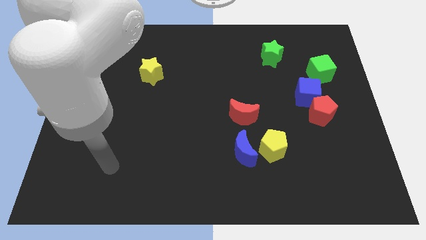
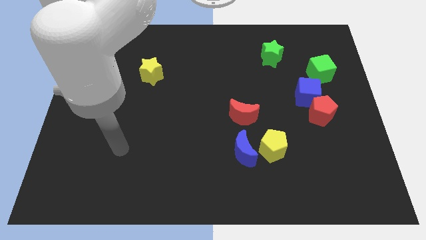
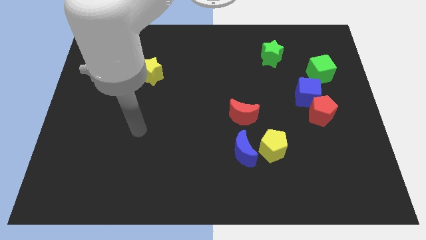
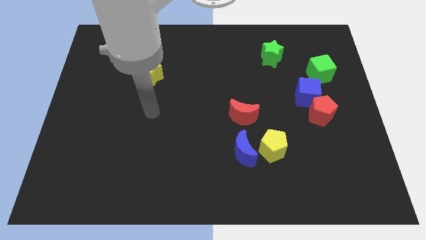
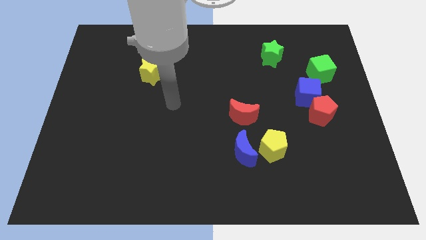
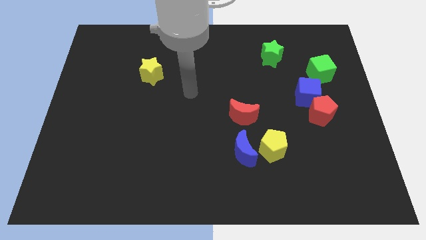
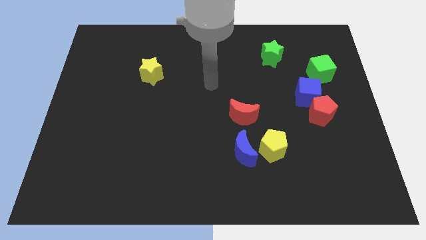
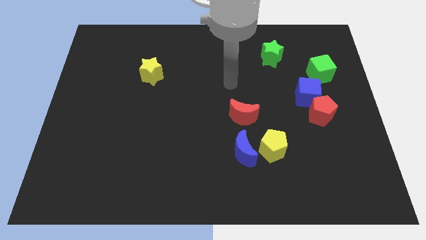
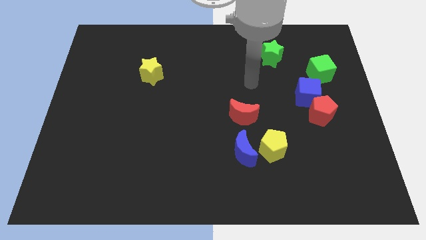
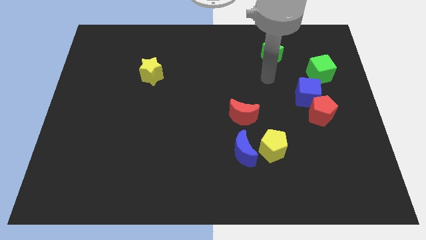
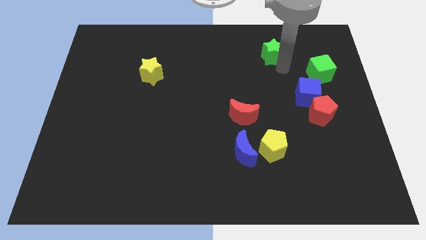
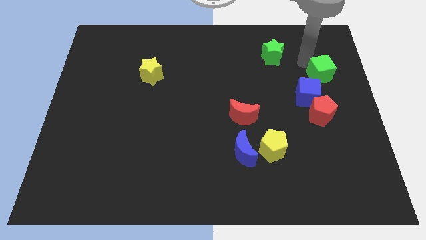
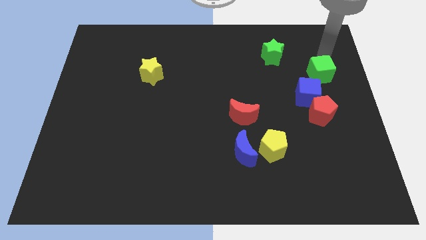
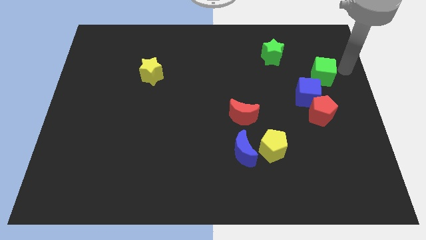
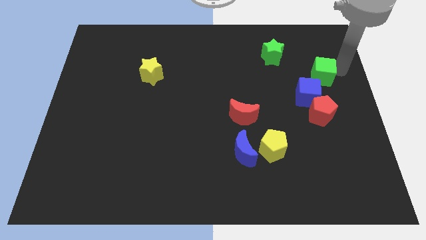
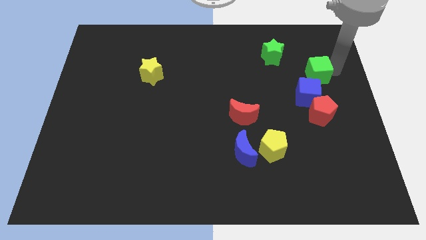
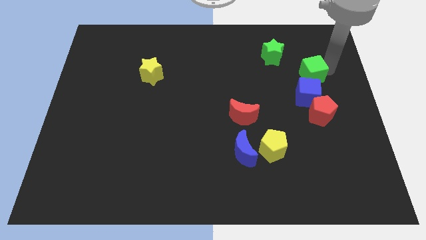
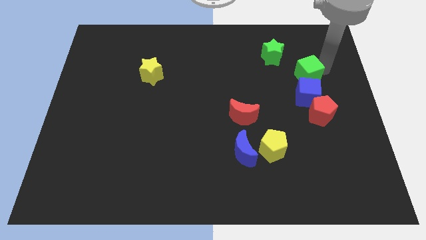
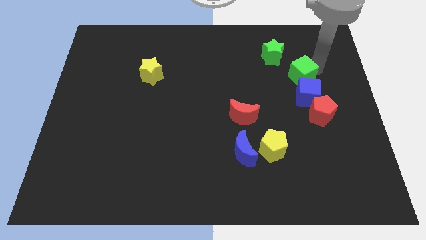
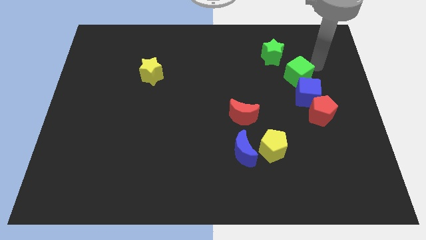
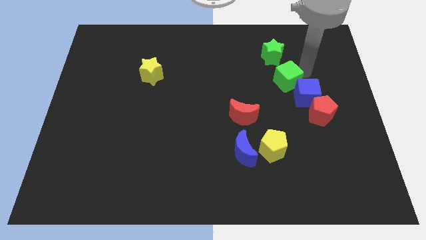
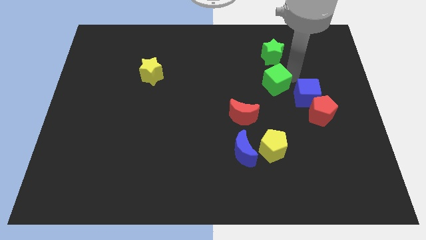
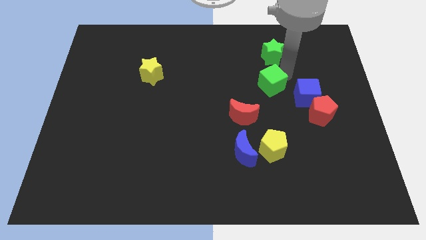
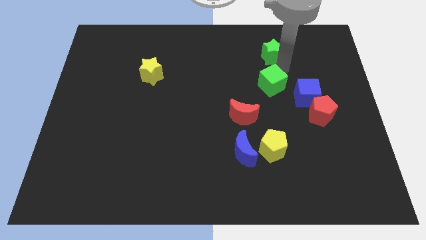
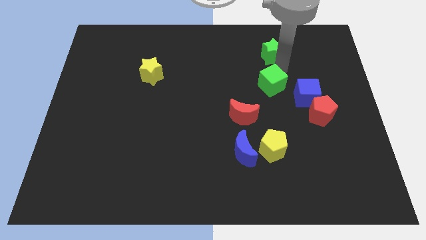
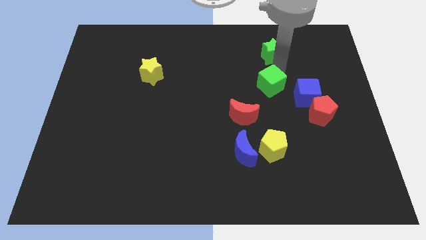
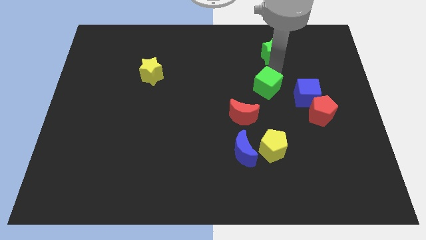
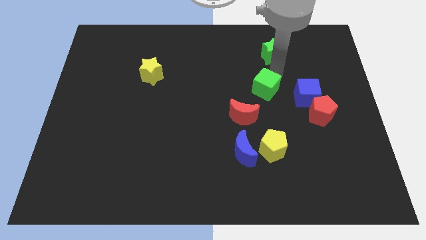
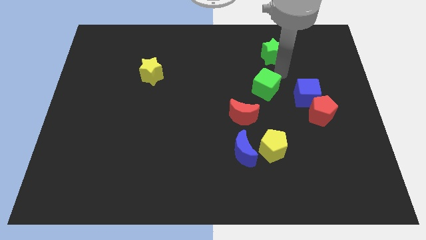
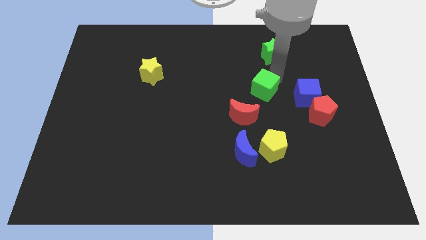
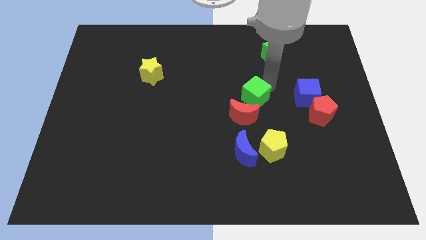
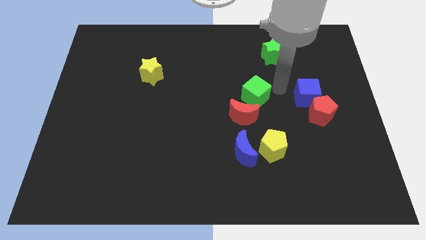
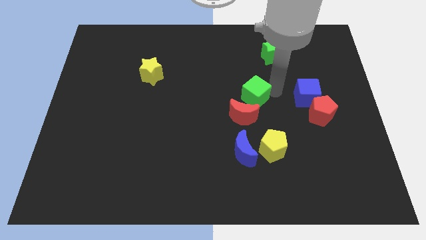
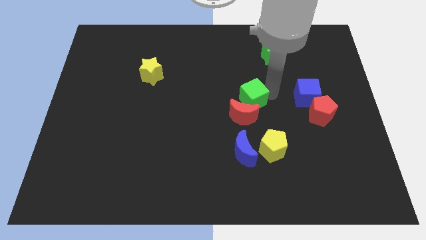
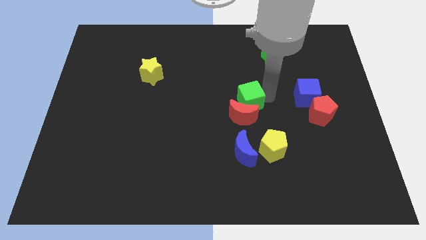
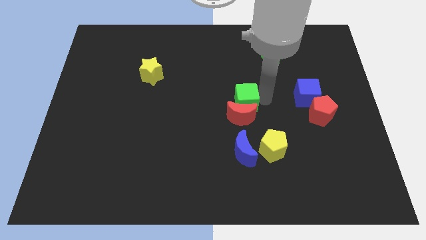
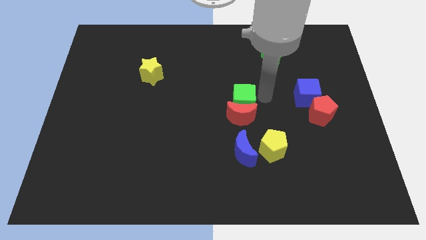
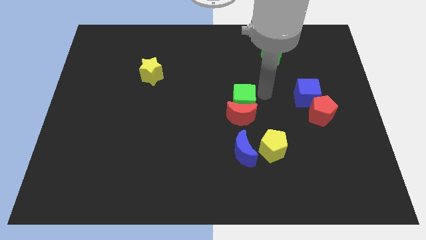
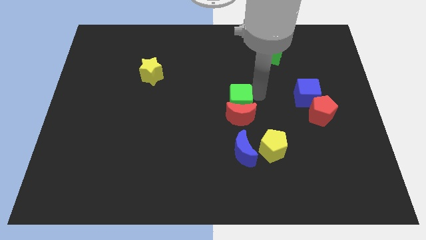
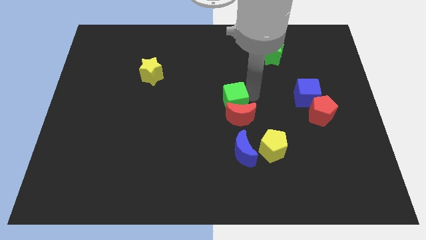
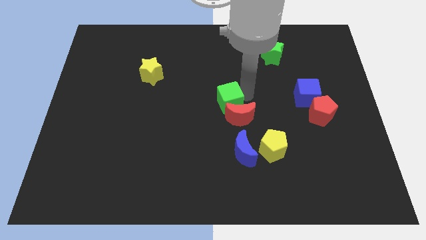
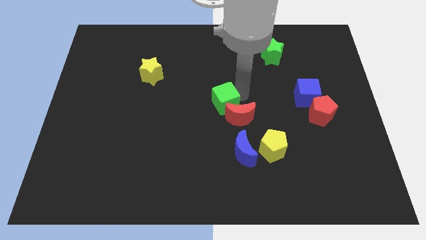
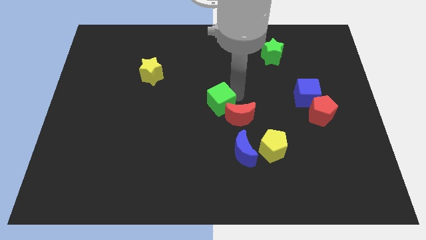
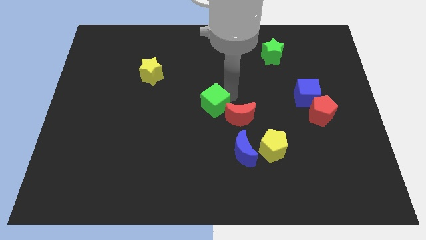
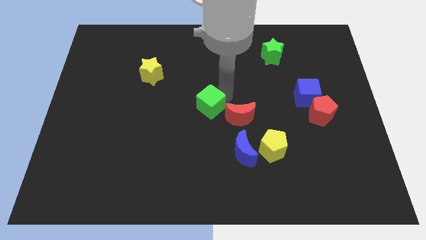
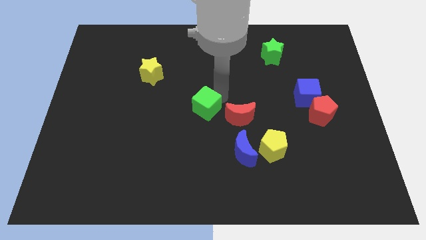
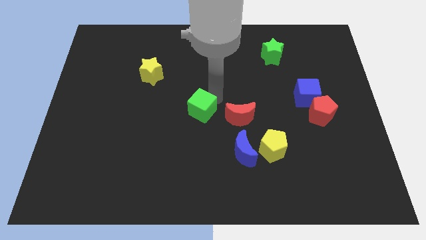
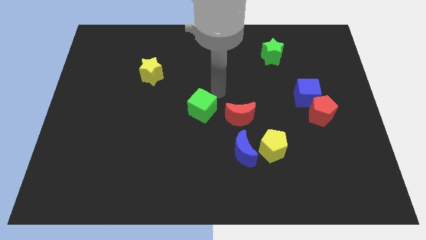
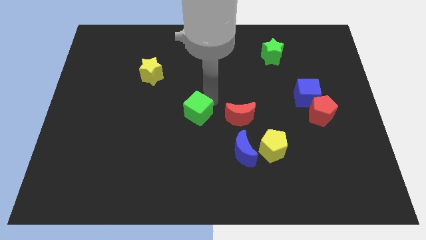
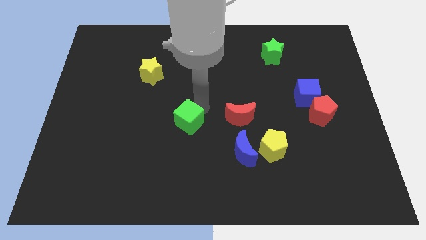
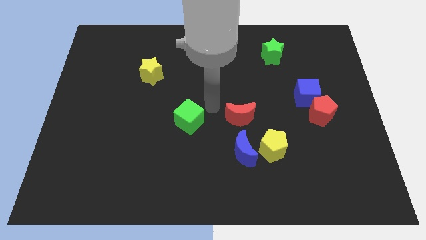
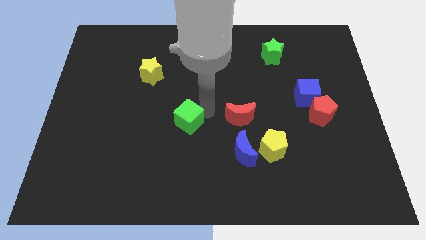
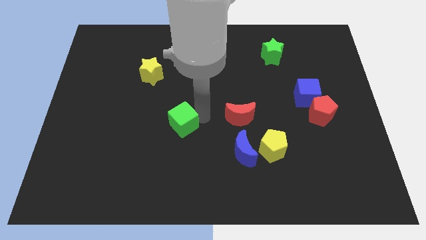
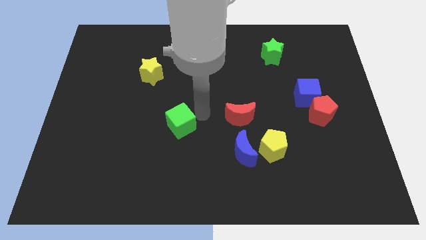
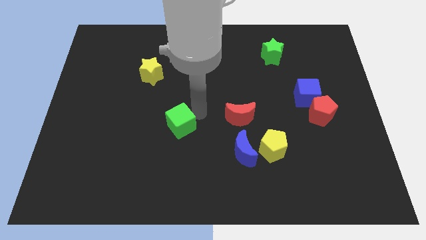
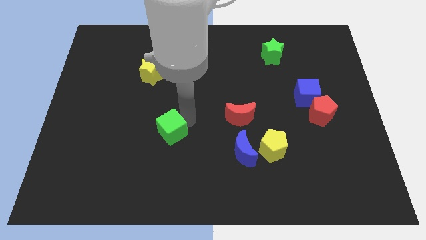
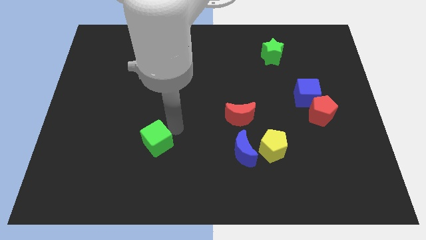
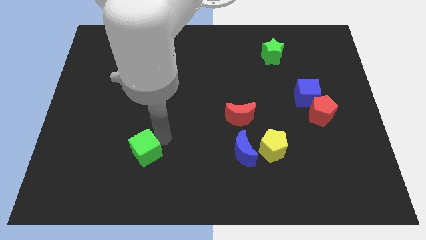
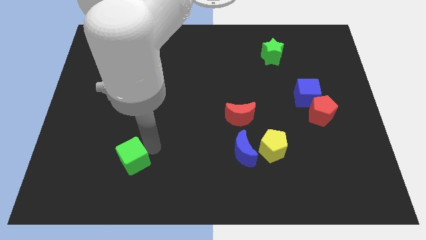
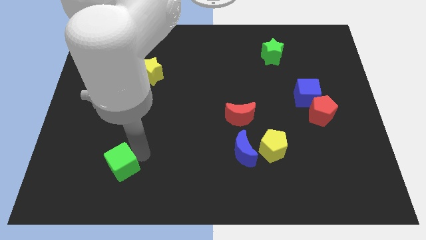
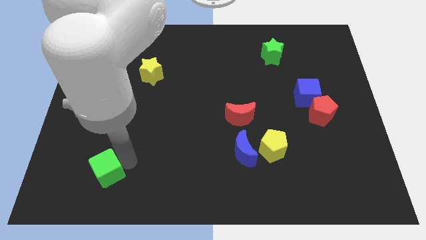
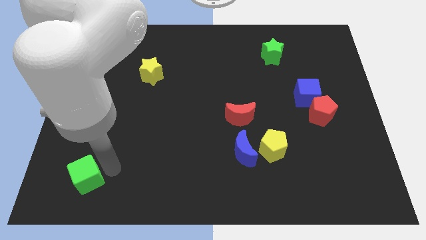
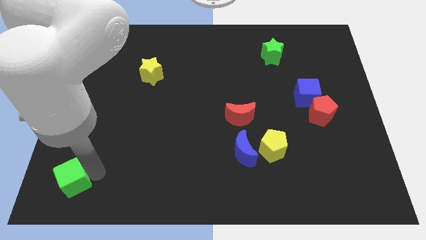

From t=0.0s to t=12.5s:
push the green cube to the bottom left of the board
